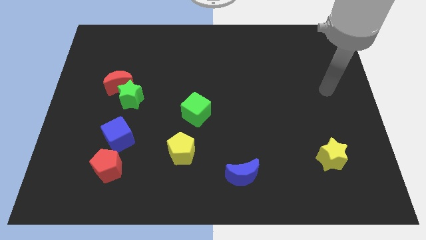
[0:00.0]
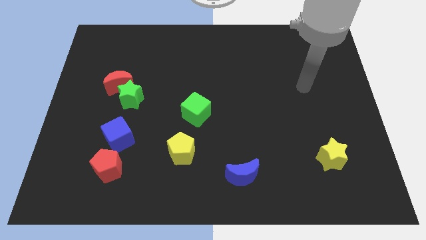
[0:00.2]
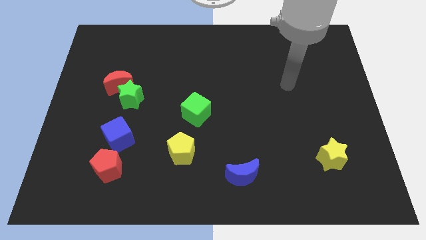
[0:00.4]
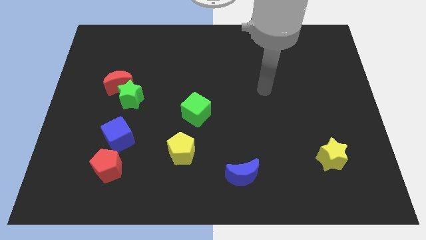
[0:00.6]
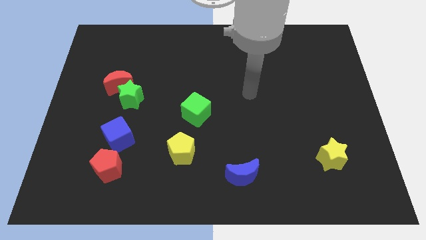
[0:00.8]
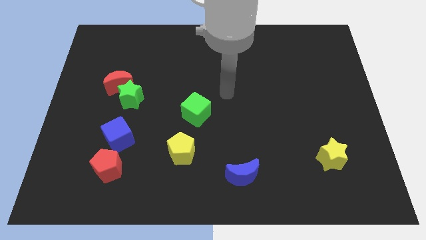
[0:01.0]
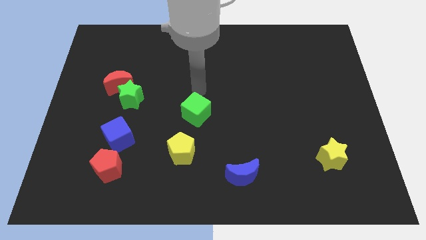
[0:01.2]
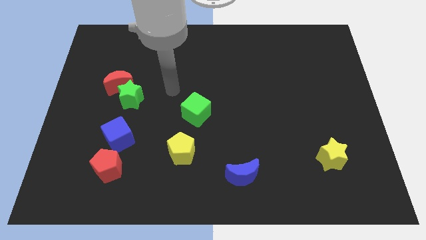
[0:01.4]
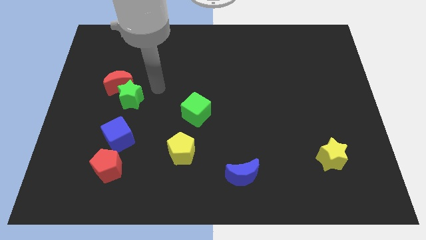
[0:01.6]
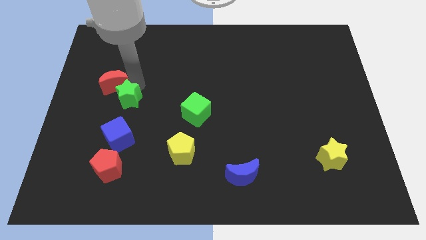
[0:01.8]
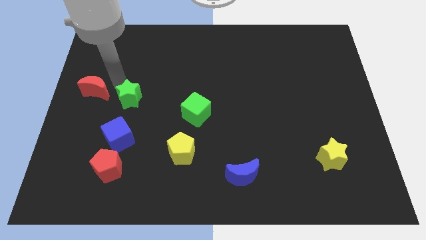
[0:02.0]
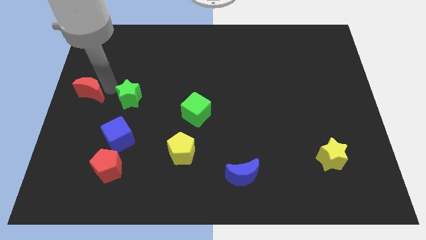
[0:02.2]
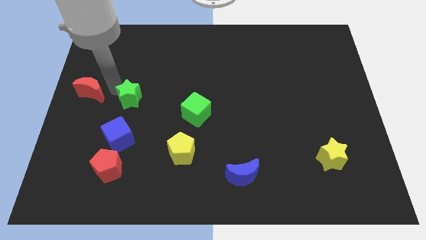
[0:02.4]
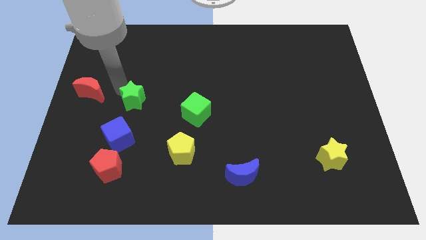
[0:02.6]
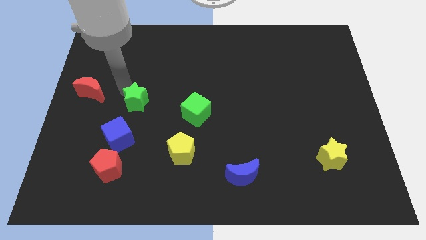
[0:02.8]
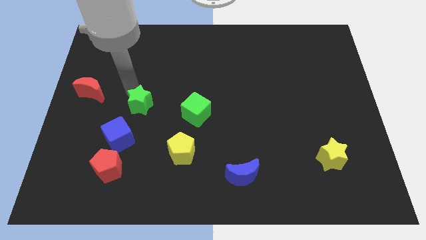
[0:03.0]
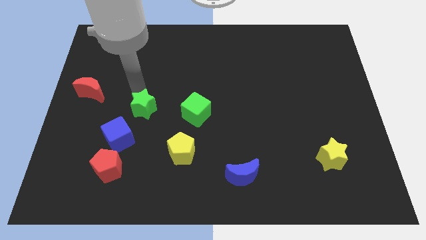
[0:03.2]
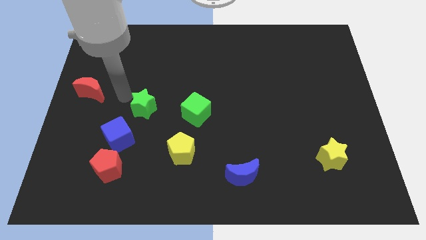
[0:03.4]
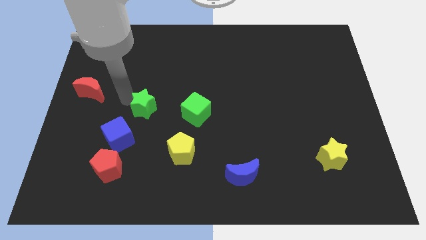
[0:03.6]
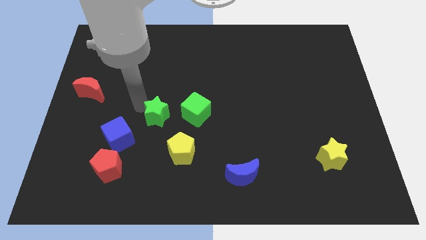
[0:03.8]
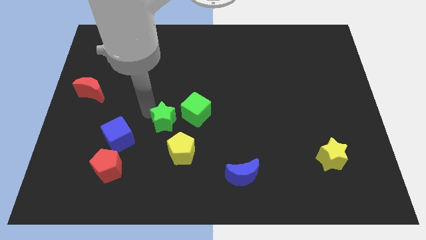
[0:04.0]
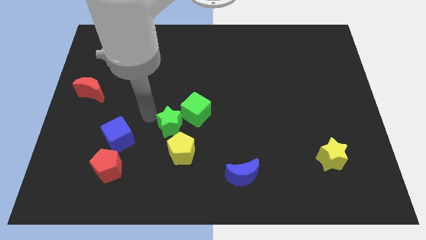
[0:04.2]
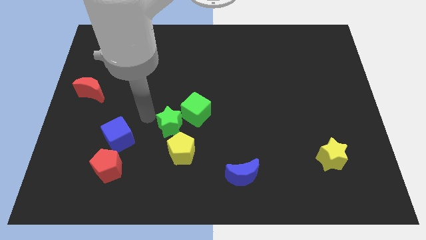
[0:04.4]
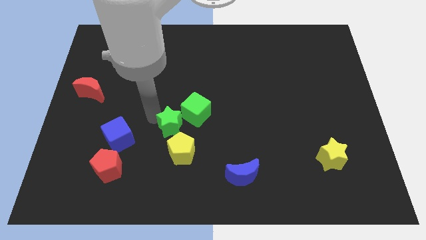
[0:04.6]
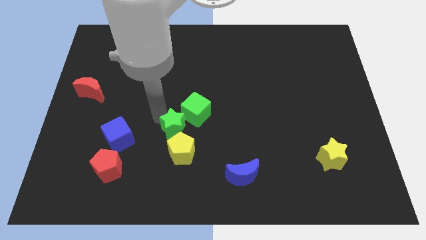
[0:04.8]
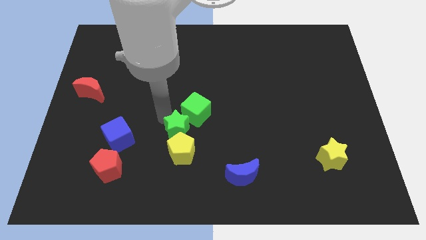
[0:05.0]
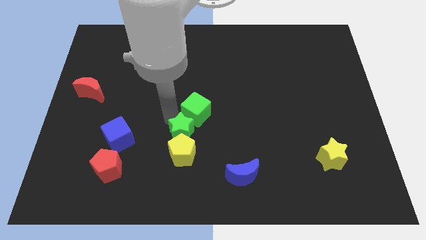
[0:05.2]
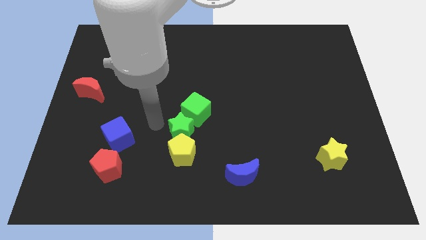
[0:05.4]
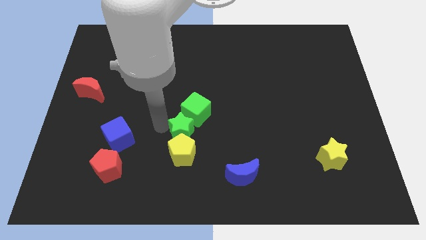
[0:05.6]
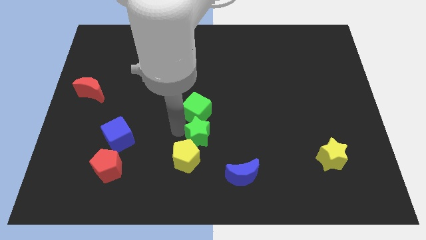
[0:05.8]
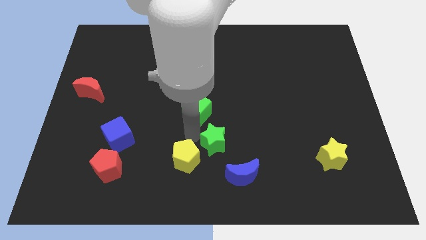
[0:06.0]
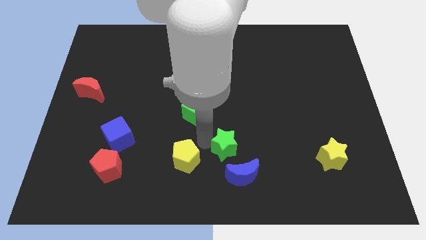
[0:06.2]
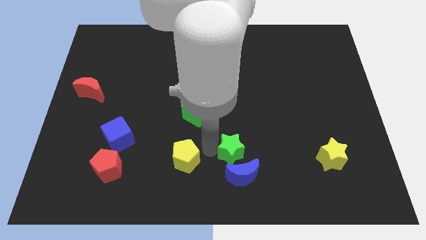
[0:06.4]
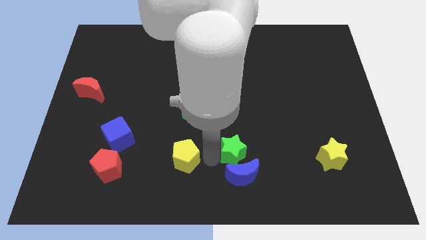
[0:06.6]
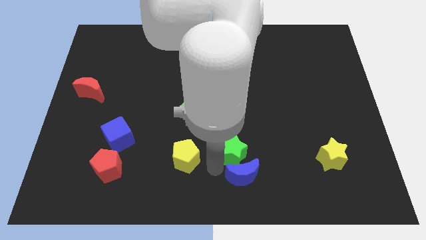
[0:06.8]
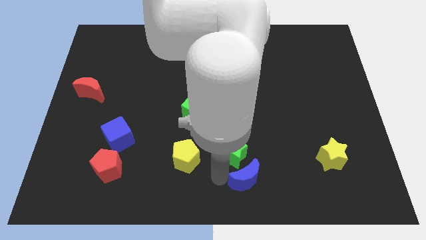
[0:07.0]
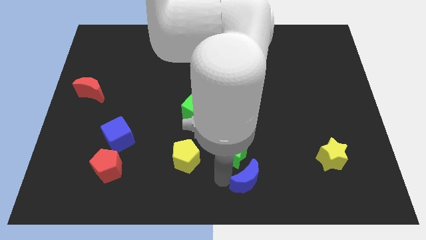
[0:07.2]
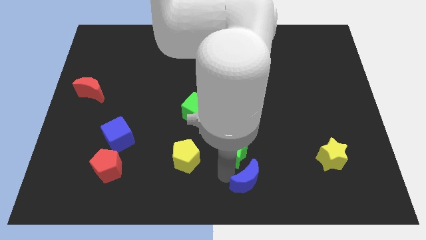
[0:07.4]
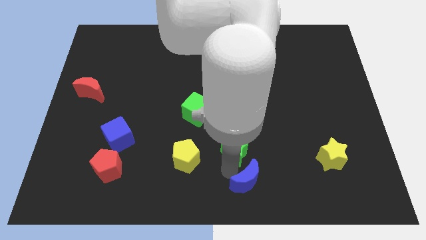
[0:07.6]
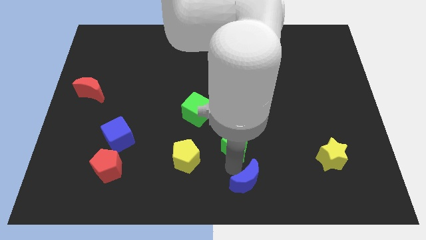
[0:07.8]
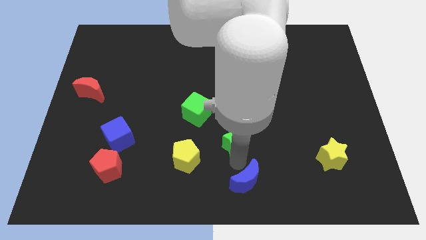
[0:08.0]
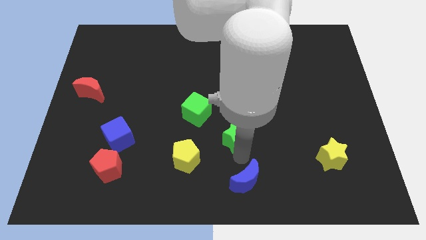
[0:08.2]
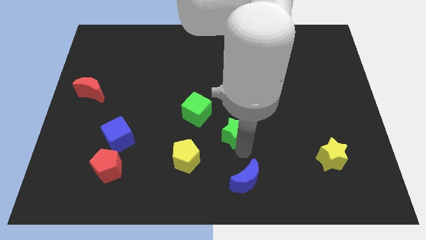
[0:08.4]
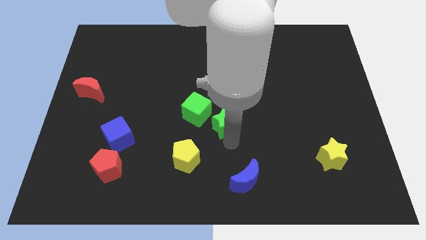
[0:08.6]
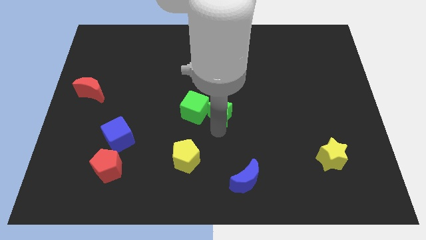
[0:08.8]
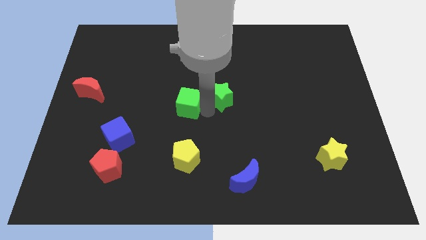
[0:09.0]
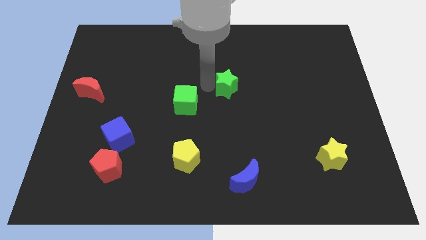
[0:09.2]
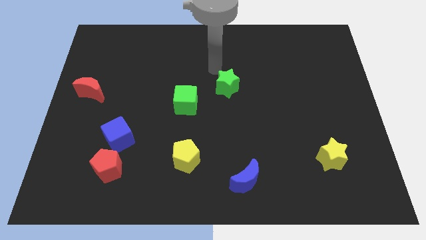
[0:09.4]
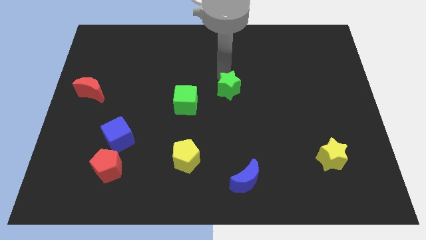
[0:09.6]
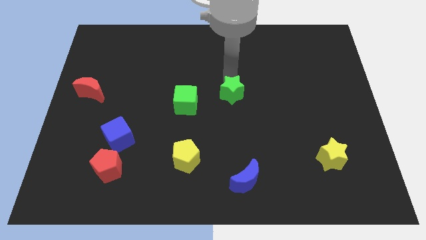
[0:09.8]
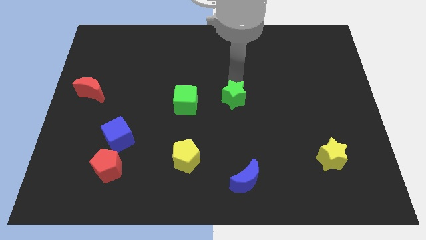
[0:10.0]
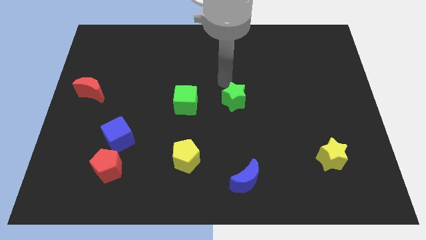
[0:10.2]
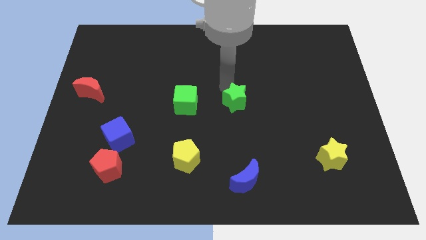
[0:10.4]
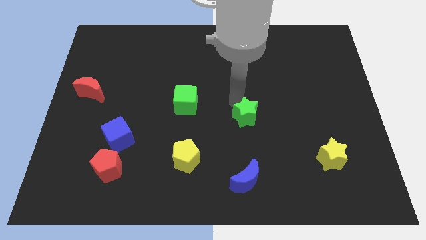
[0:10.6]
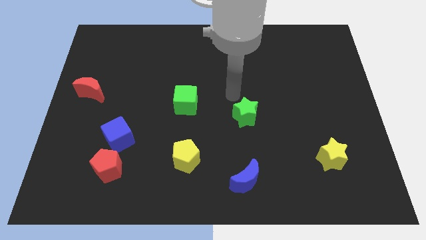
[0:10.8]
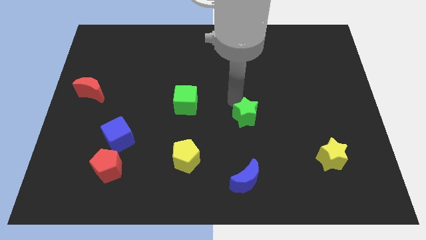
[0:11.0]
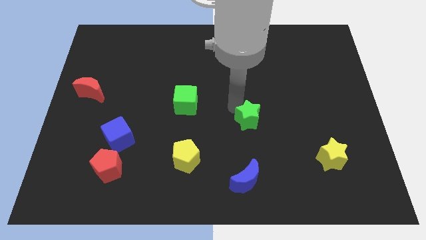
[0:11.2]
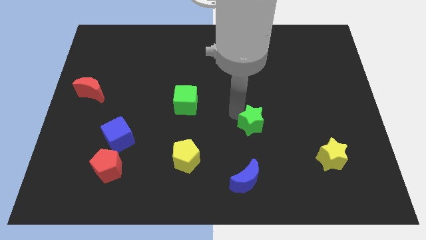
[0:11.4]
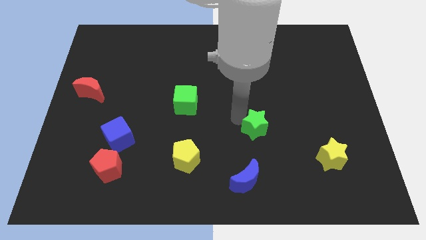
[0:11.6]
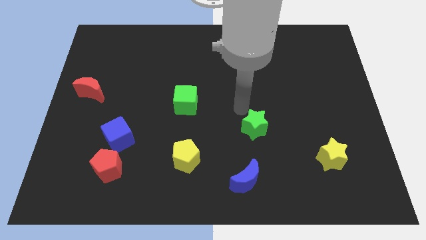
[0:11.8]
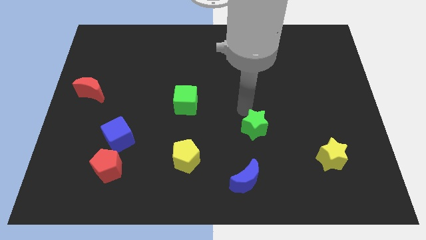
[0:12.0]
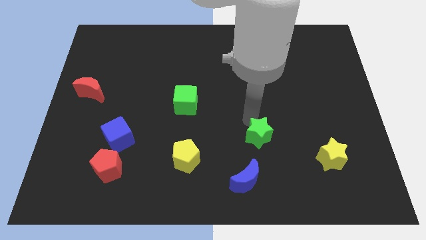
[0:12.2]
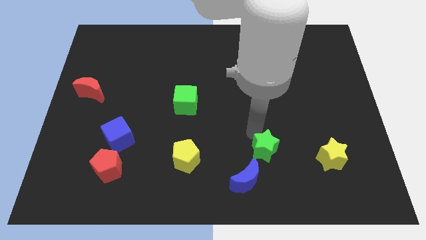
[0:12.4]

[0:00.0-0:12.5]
put the green star to the left of the yellow star

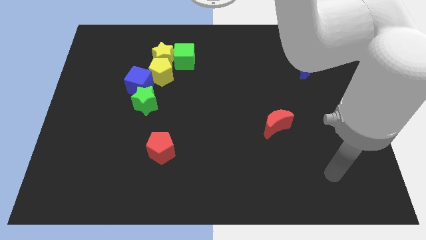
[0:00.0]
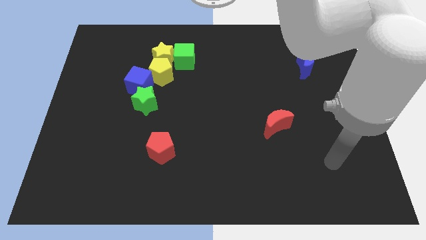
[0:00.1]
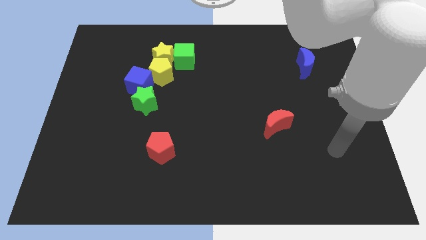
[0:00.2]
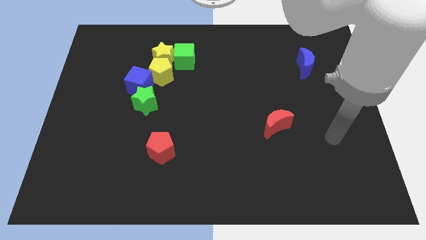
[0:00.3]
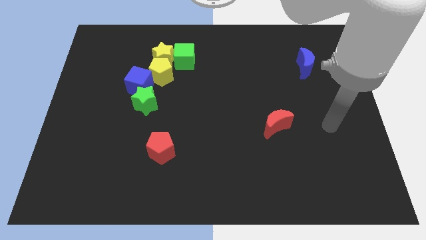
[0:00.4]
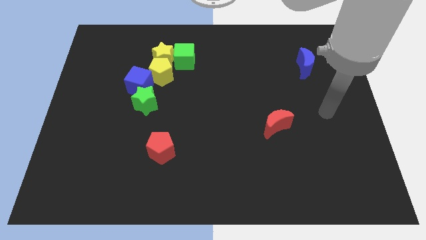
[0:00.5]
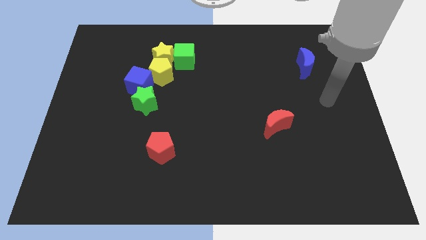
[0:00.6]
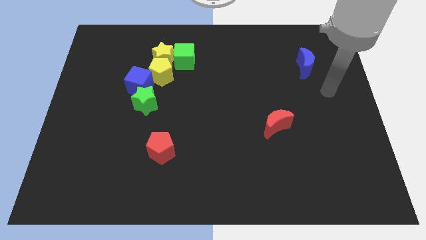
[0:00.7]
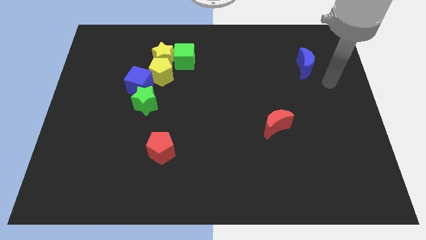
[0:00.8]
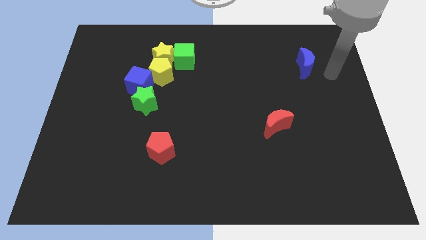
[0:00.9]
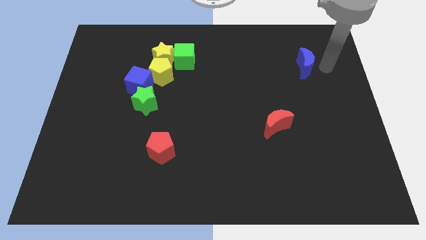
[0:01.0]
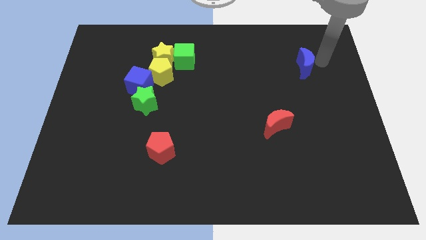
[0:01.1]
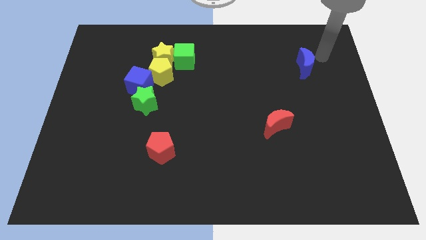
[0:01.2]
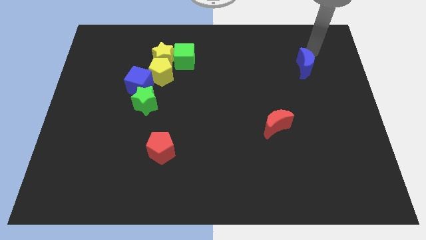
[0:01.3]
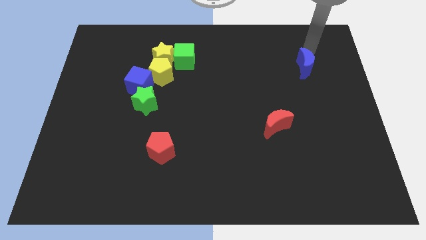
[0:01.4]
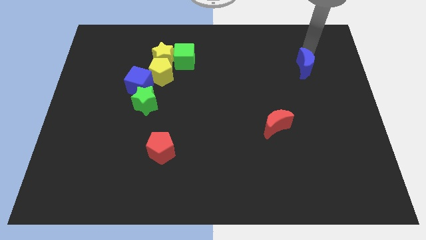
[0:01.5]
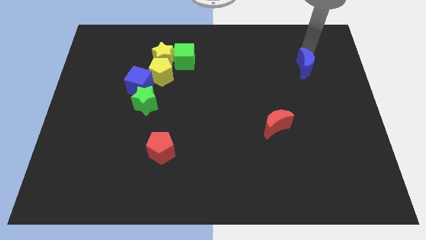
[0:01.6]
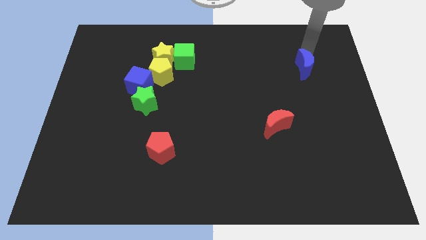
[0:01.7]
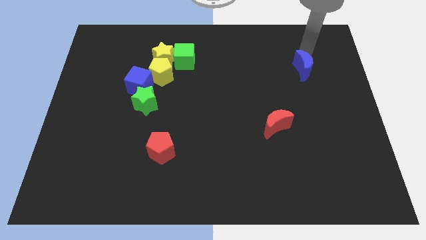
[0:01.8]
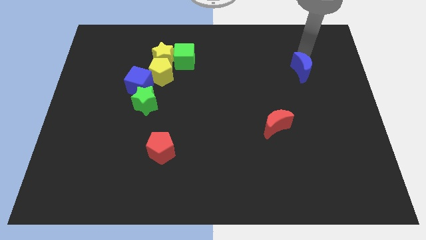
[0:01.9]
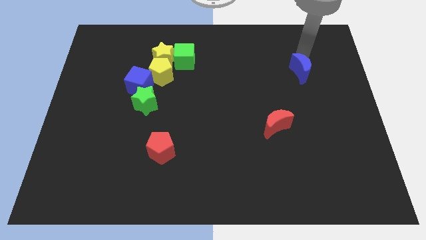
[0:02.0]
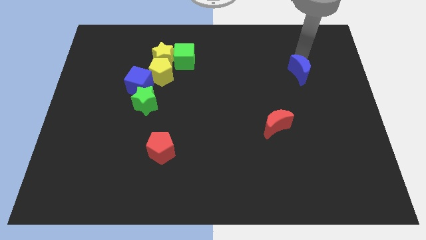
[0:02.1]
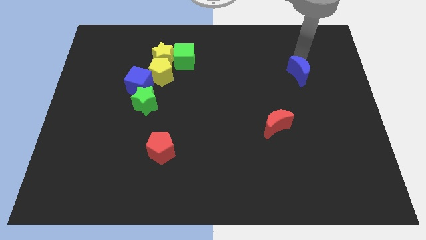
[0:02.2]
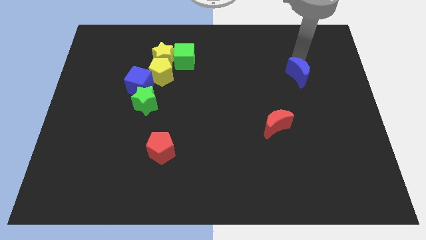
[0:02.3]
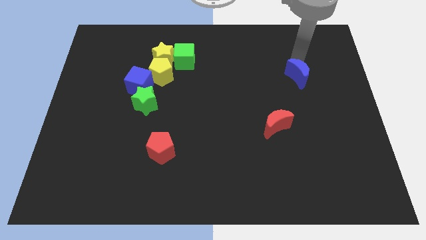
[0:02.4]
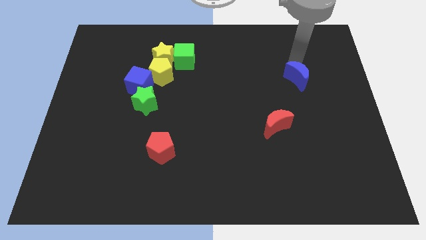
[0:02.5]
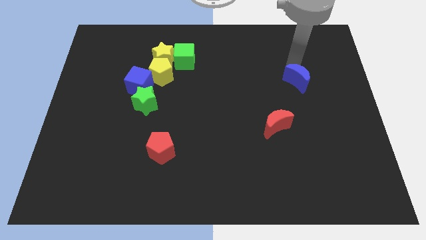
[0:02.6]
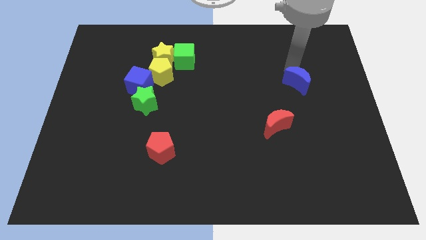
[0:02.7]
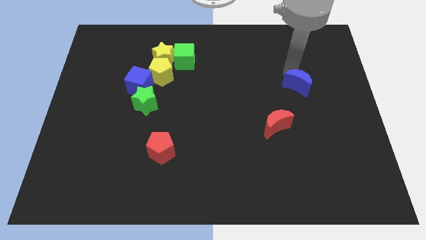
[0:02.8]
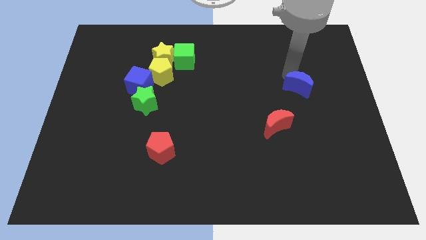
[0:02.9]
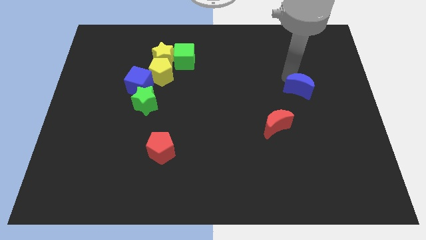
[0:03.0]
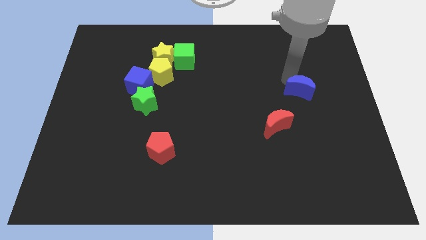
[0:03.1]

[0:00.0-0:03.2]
push the blue moon to the top right of the red moon
